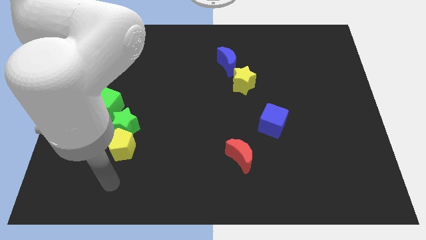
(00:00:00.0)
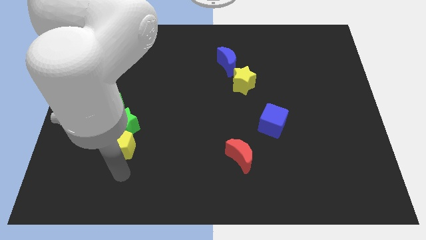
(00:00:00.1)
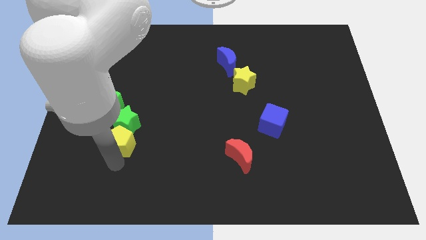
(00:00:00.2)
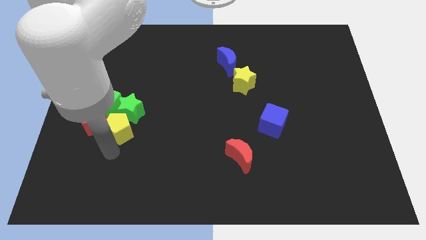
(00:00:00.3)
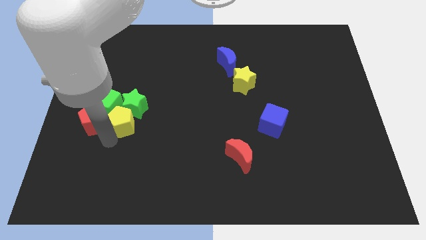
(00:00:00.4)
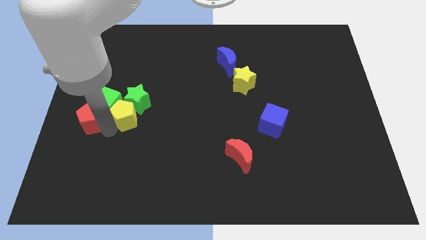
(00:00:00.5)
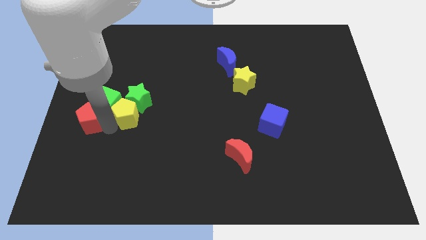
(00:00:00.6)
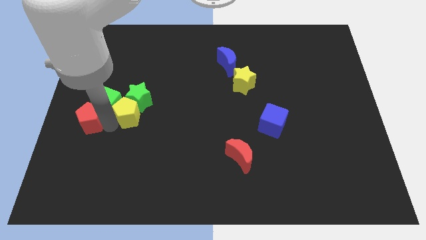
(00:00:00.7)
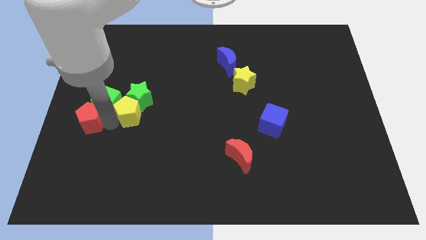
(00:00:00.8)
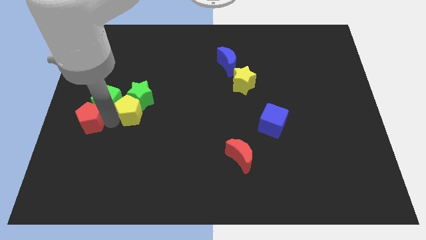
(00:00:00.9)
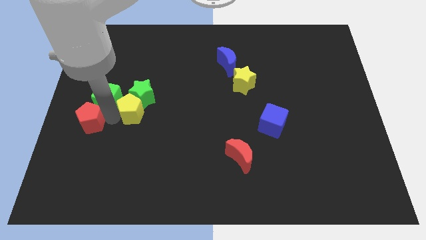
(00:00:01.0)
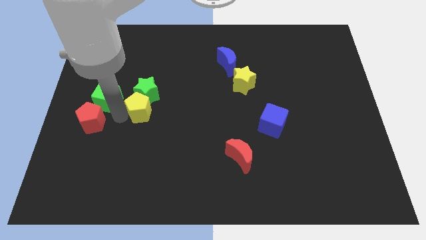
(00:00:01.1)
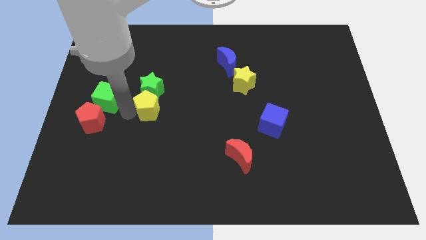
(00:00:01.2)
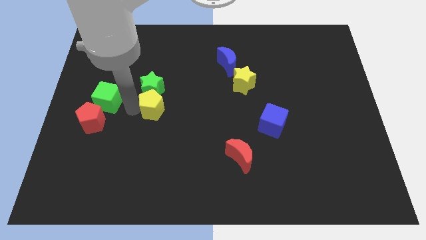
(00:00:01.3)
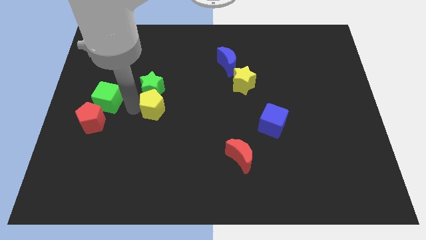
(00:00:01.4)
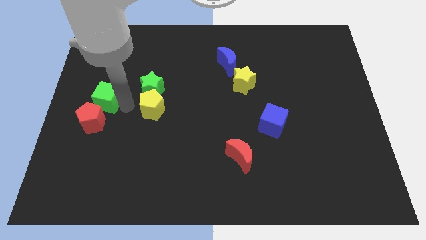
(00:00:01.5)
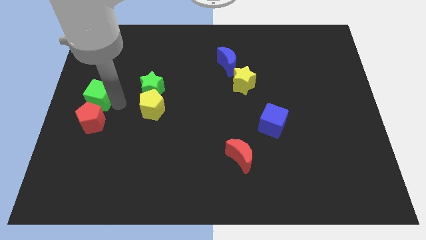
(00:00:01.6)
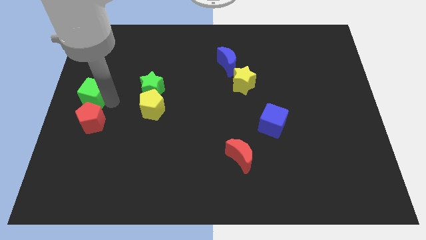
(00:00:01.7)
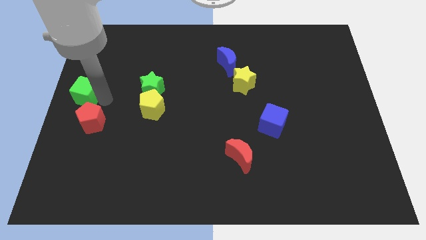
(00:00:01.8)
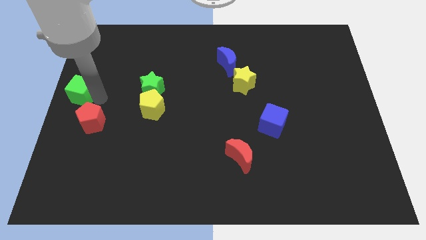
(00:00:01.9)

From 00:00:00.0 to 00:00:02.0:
pull the green cube apart from the red pentagon and green star

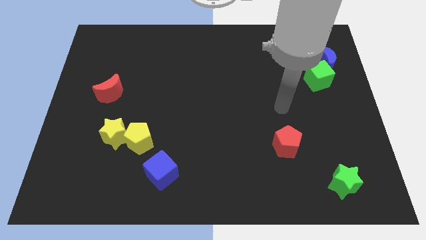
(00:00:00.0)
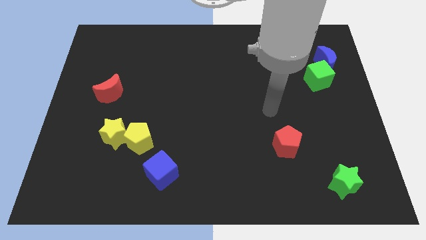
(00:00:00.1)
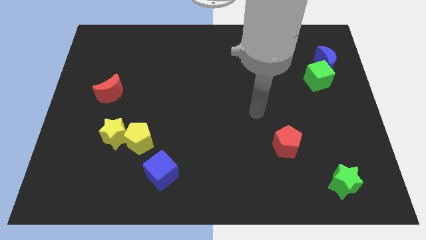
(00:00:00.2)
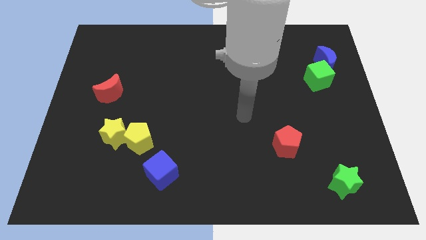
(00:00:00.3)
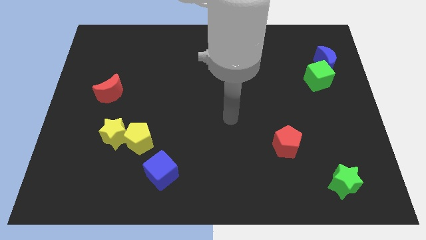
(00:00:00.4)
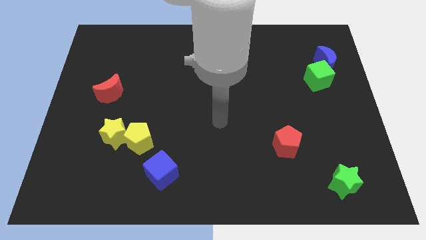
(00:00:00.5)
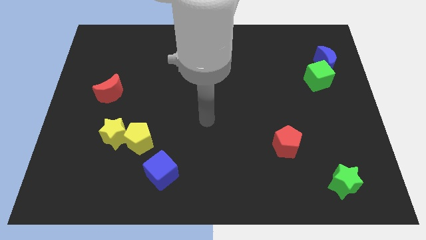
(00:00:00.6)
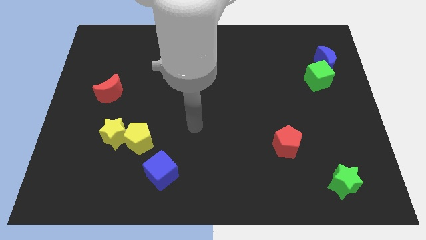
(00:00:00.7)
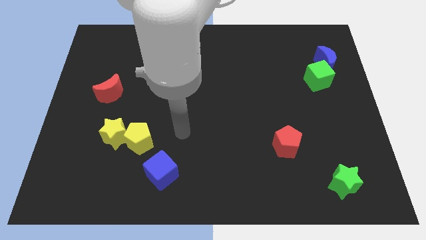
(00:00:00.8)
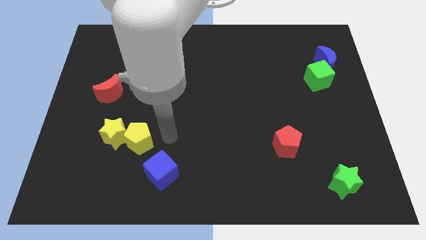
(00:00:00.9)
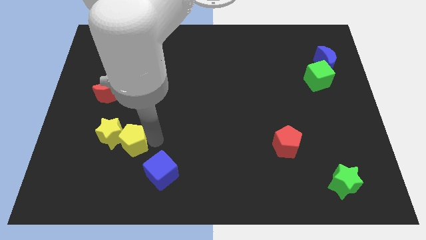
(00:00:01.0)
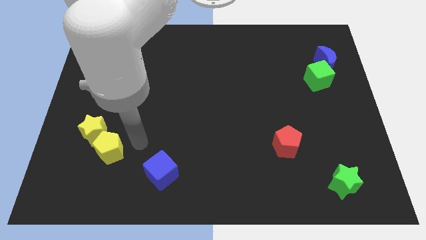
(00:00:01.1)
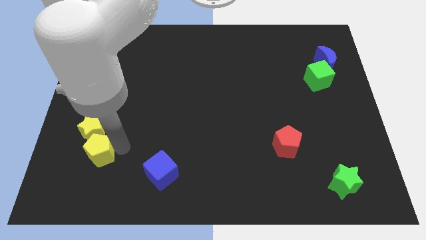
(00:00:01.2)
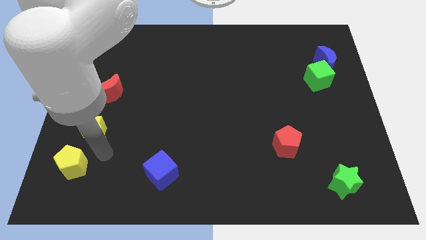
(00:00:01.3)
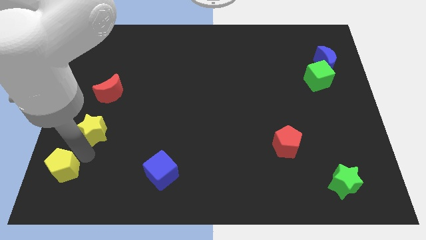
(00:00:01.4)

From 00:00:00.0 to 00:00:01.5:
separate the yellow star from the yellow pentagon

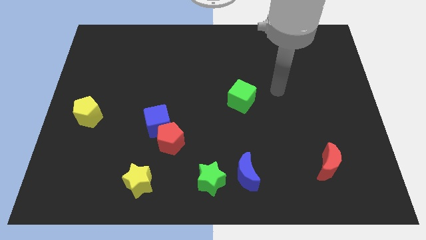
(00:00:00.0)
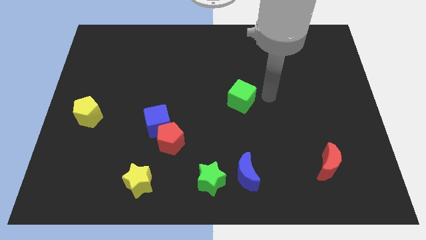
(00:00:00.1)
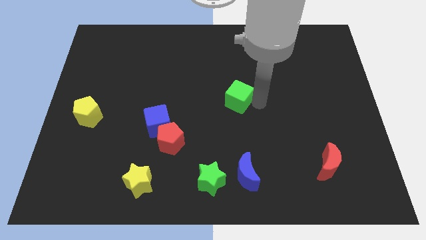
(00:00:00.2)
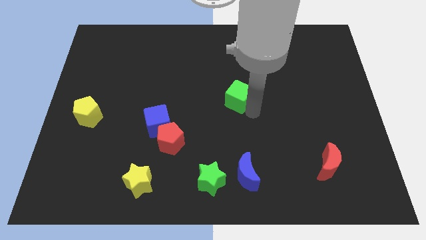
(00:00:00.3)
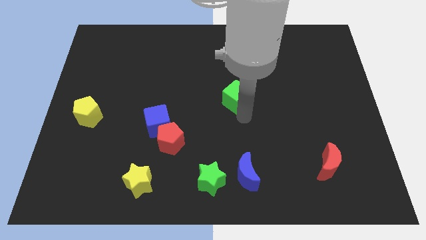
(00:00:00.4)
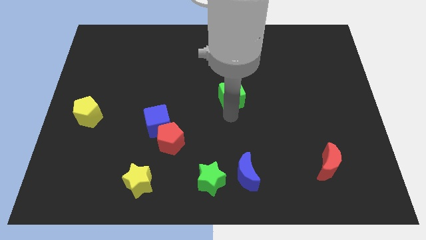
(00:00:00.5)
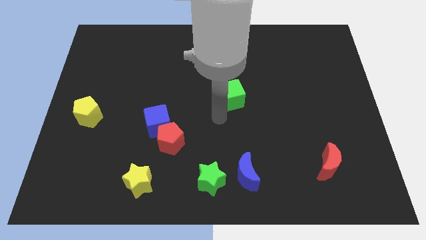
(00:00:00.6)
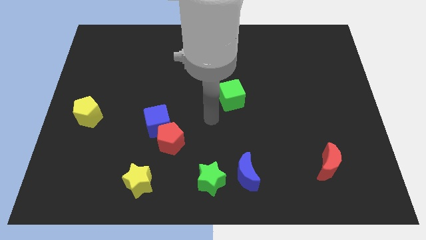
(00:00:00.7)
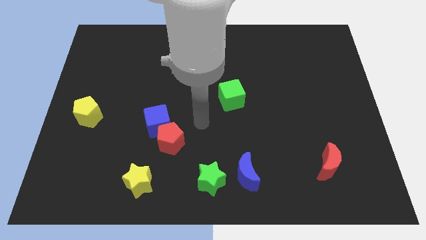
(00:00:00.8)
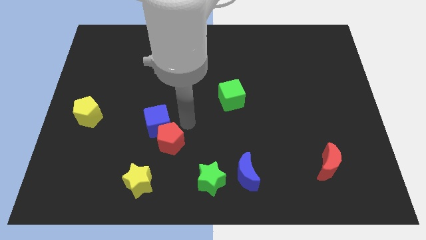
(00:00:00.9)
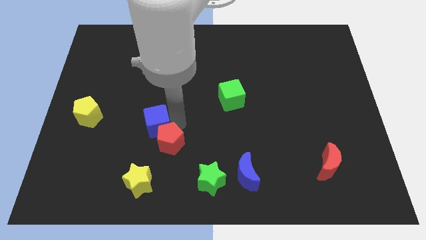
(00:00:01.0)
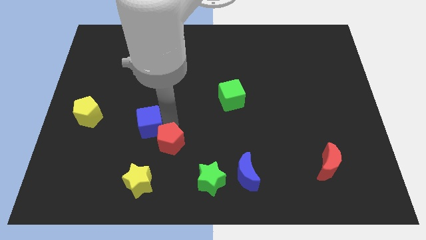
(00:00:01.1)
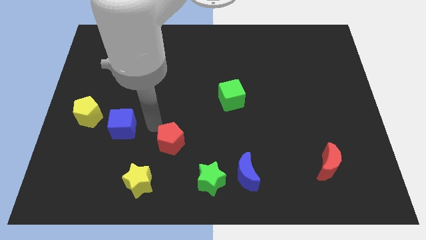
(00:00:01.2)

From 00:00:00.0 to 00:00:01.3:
separate the red pentagon from the blue cube

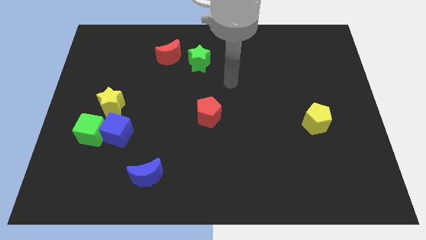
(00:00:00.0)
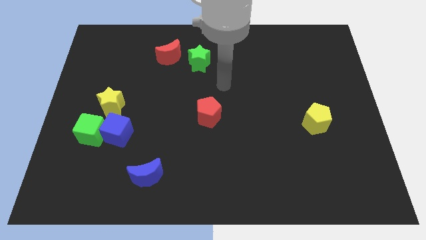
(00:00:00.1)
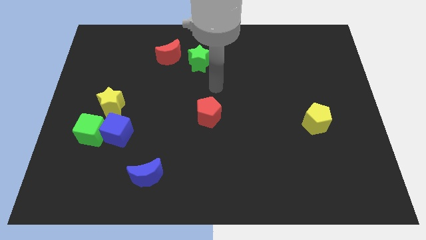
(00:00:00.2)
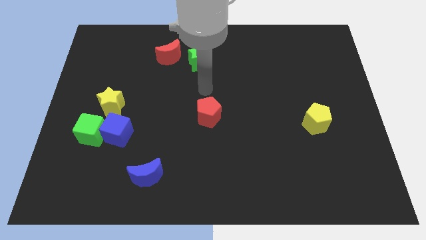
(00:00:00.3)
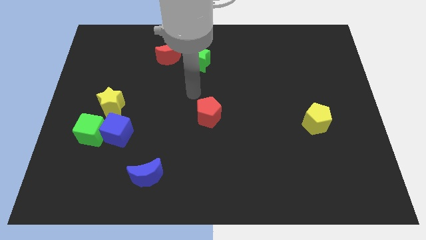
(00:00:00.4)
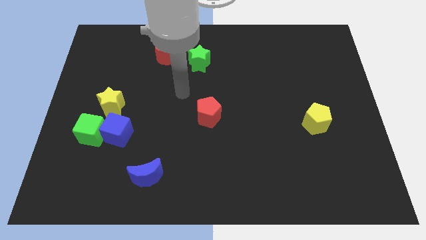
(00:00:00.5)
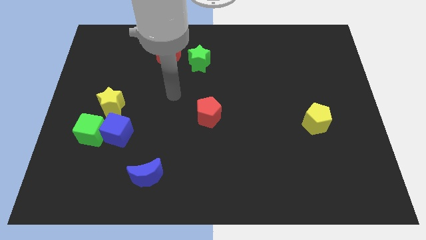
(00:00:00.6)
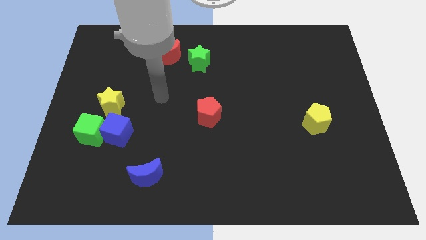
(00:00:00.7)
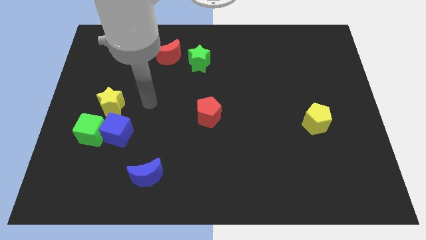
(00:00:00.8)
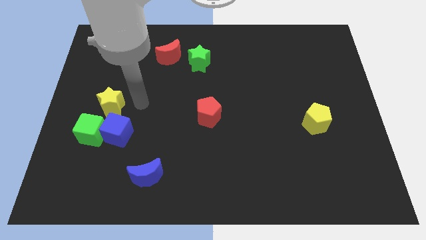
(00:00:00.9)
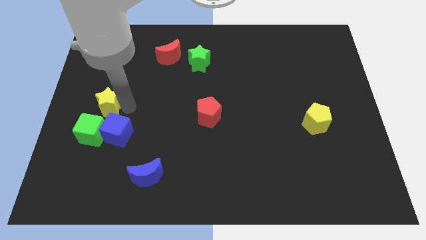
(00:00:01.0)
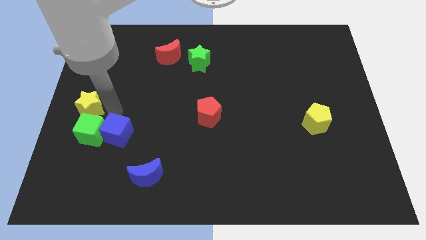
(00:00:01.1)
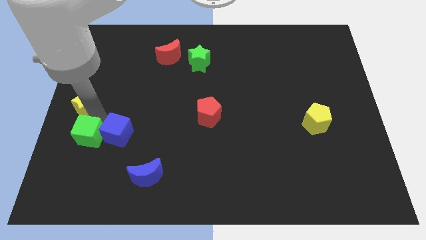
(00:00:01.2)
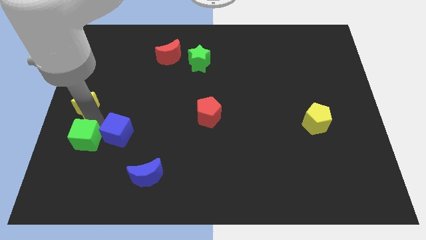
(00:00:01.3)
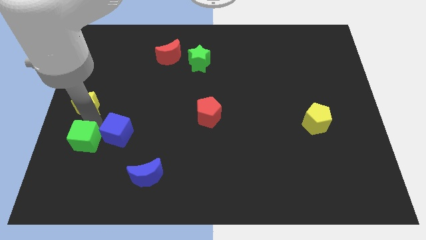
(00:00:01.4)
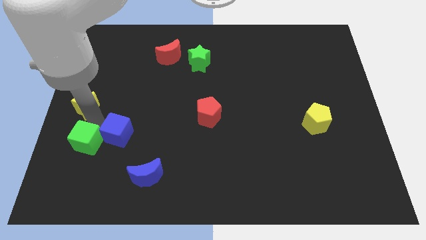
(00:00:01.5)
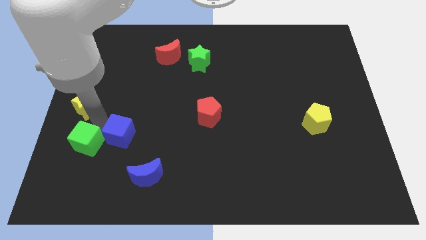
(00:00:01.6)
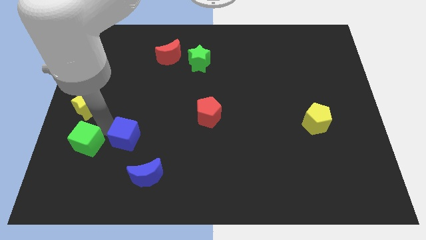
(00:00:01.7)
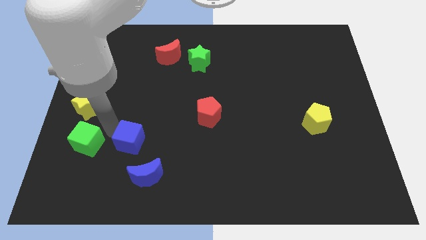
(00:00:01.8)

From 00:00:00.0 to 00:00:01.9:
separate the blue cube from the green cube and yellow star

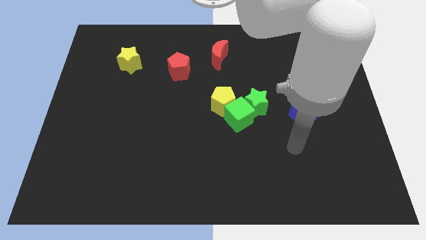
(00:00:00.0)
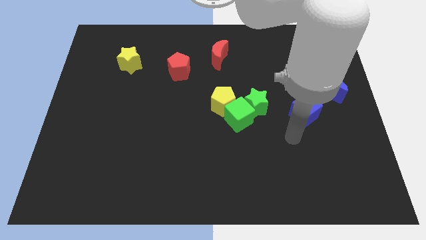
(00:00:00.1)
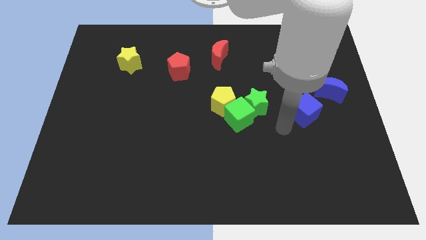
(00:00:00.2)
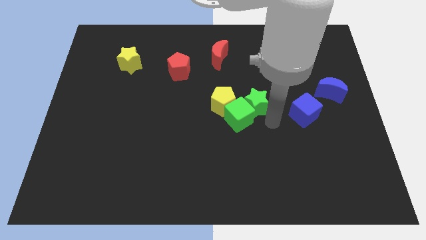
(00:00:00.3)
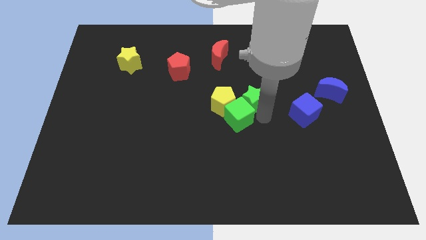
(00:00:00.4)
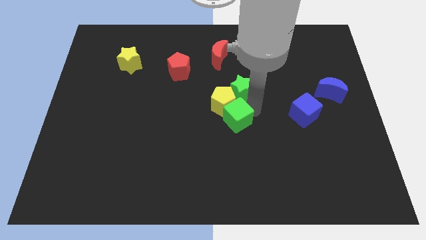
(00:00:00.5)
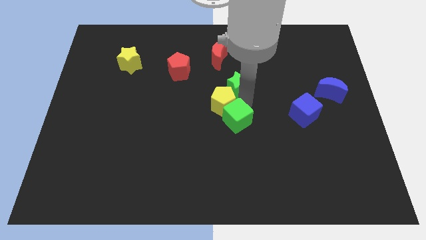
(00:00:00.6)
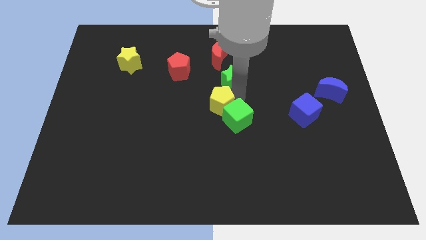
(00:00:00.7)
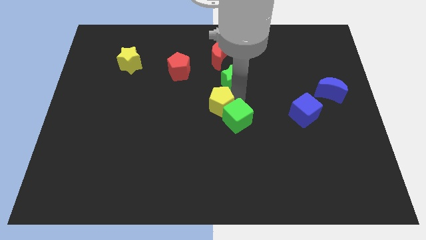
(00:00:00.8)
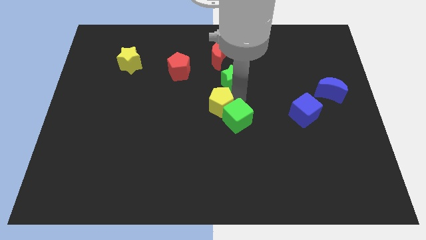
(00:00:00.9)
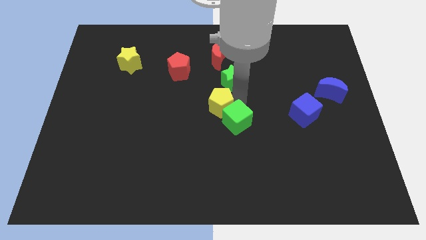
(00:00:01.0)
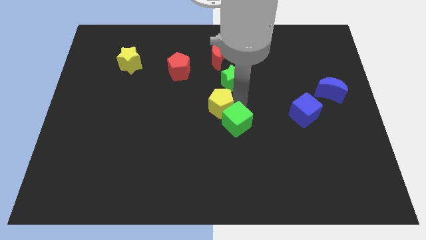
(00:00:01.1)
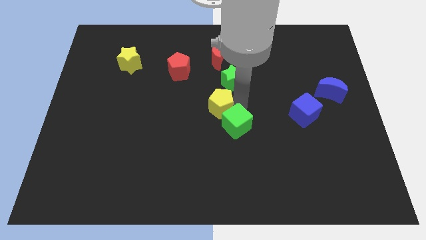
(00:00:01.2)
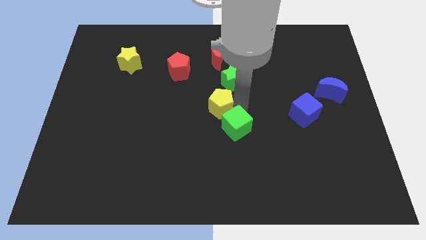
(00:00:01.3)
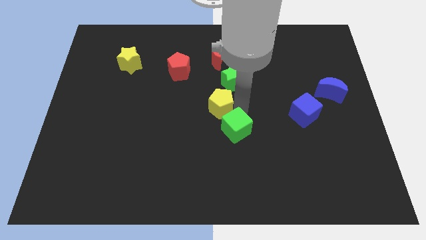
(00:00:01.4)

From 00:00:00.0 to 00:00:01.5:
pull the green cube apart from the green star and yellow pentagon

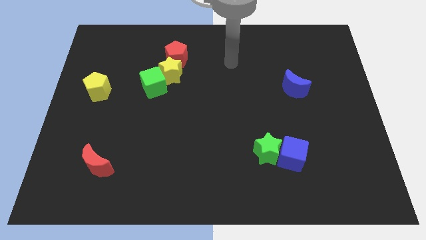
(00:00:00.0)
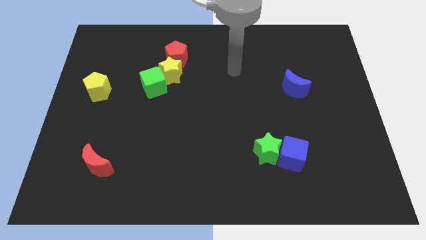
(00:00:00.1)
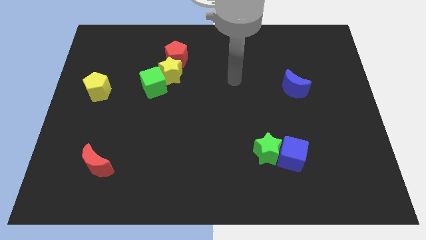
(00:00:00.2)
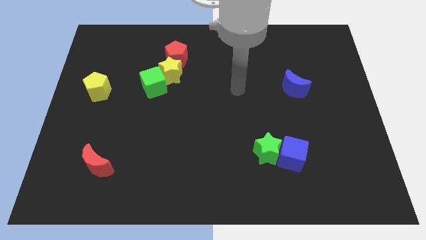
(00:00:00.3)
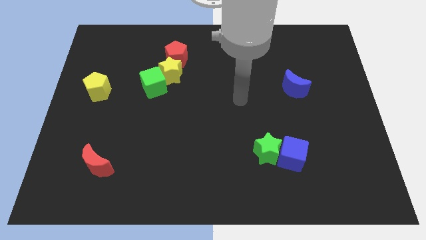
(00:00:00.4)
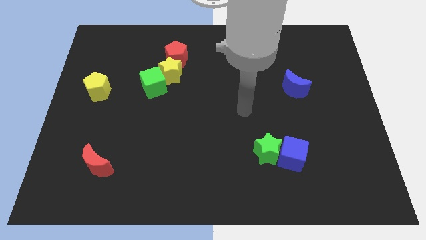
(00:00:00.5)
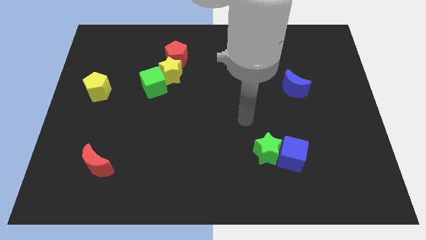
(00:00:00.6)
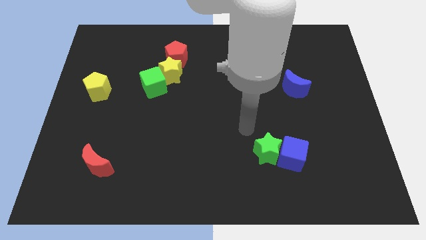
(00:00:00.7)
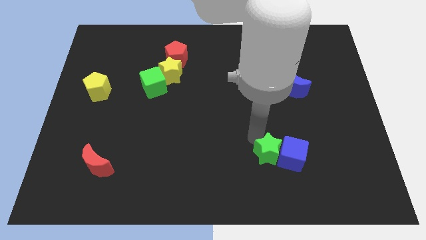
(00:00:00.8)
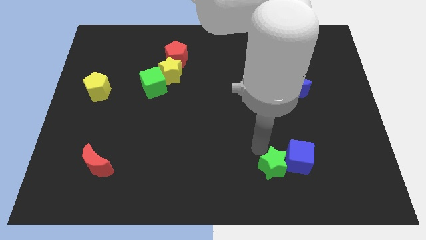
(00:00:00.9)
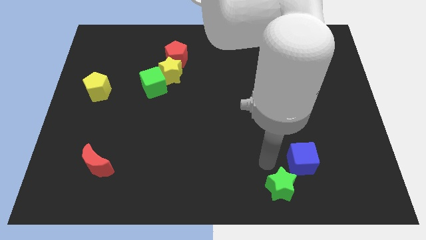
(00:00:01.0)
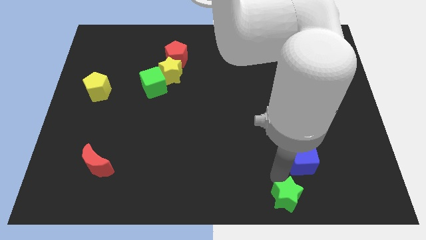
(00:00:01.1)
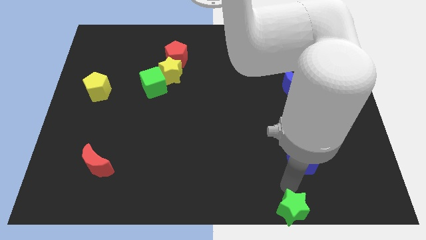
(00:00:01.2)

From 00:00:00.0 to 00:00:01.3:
move the blue cube away from the green star
